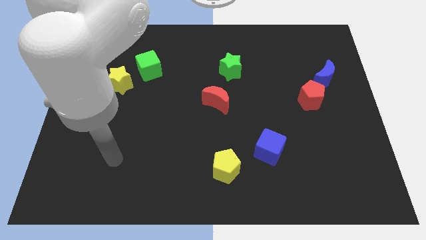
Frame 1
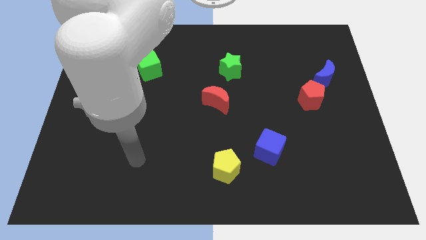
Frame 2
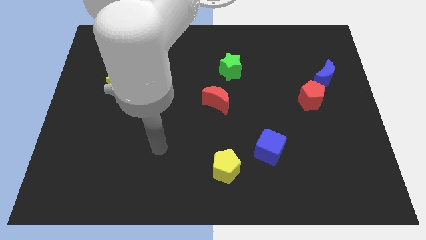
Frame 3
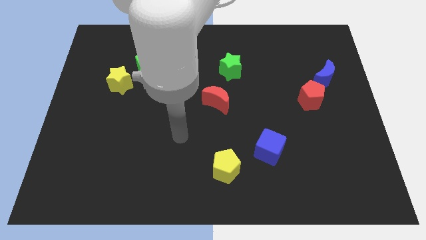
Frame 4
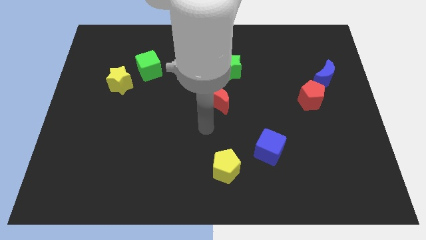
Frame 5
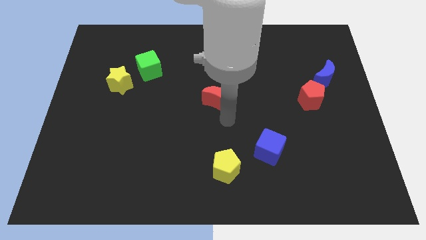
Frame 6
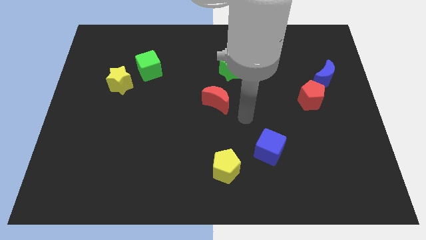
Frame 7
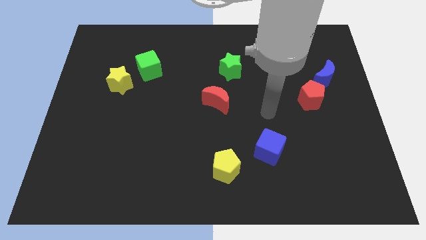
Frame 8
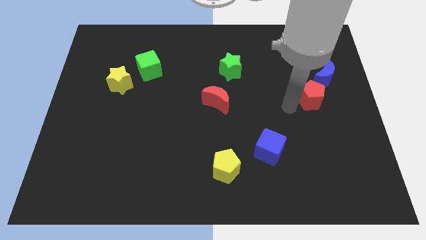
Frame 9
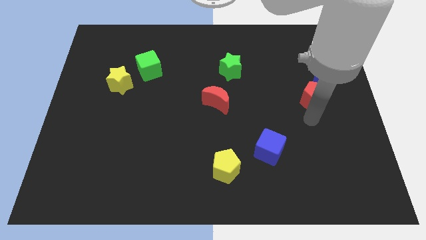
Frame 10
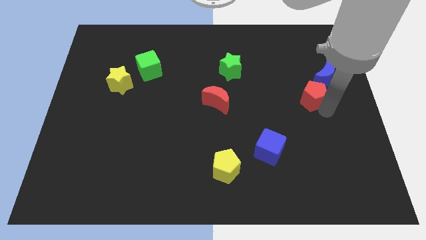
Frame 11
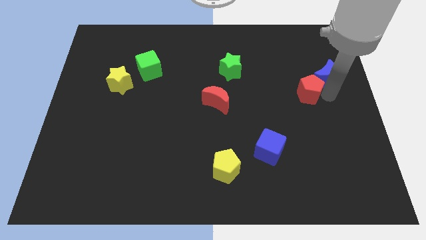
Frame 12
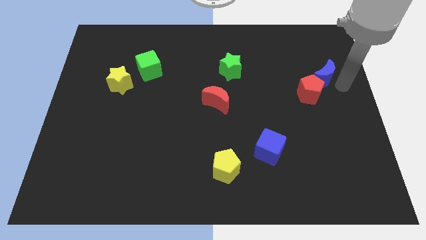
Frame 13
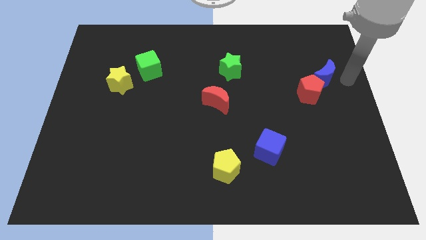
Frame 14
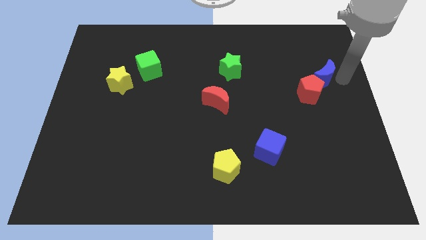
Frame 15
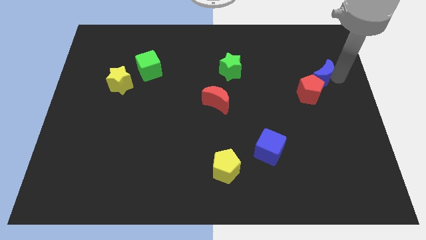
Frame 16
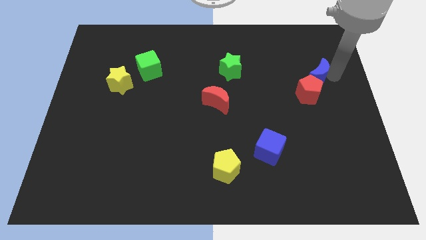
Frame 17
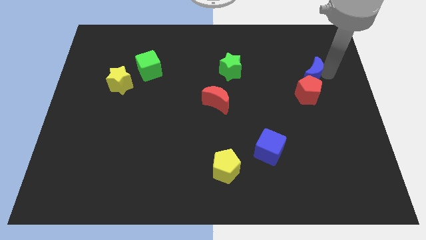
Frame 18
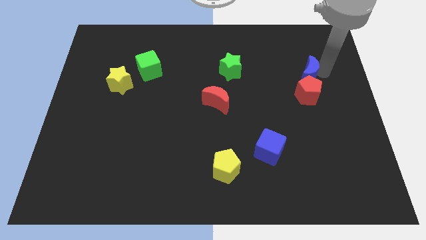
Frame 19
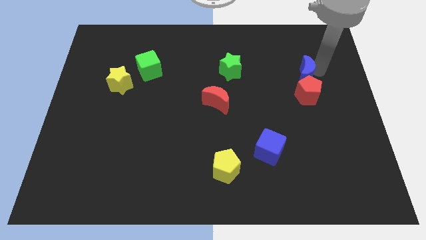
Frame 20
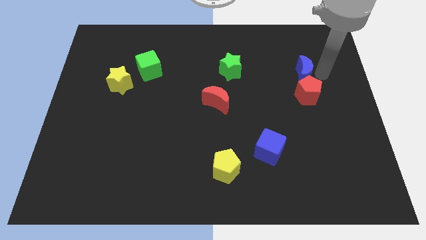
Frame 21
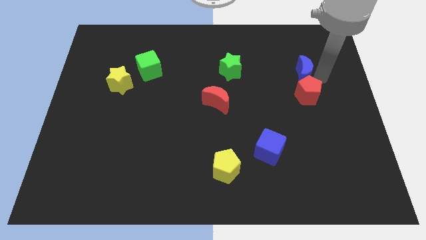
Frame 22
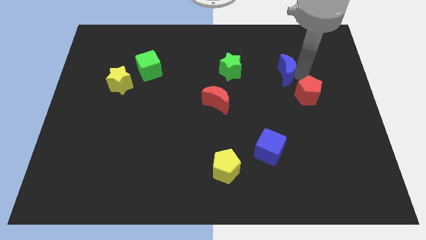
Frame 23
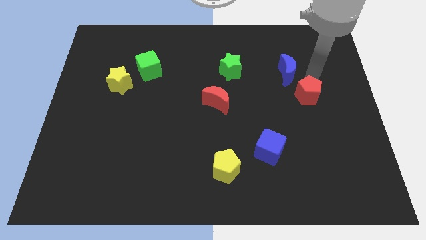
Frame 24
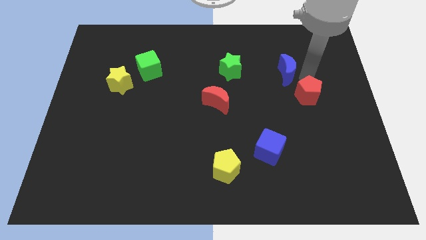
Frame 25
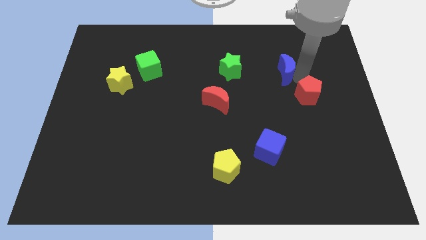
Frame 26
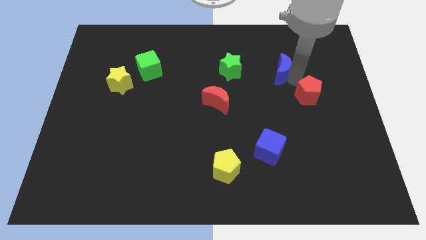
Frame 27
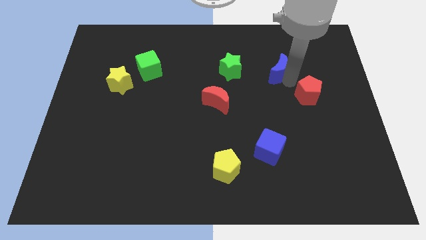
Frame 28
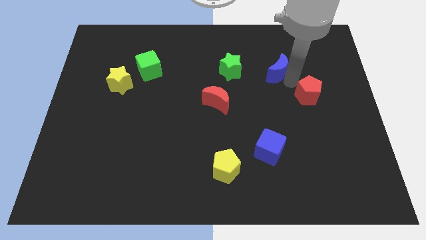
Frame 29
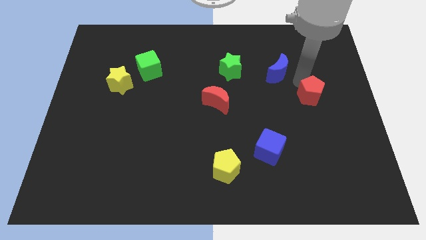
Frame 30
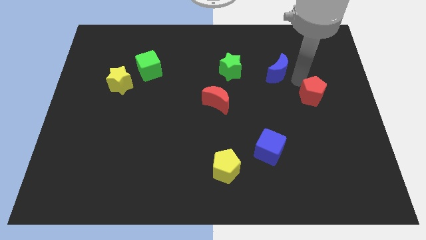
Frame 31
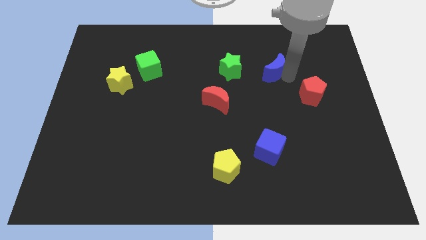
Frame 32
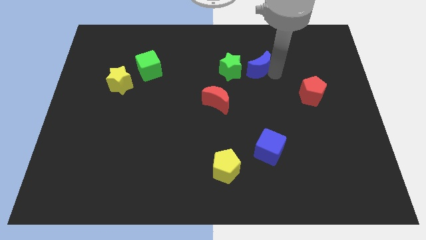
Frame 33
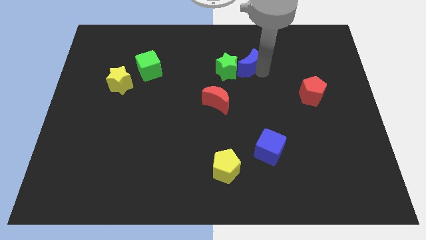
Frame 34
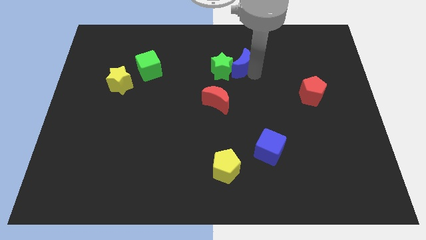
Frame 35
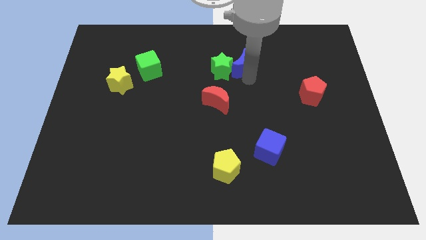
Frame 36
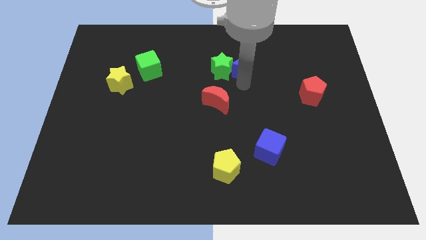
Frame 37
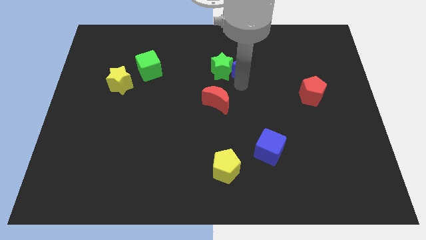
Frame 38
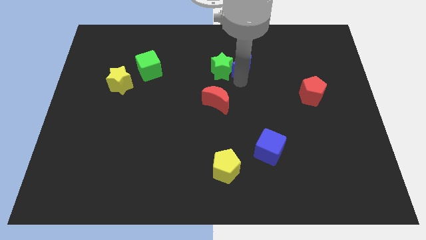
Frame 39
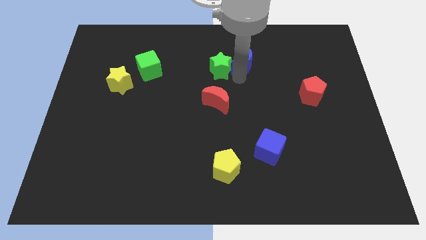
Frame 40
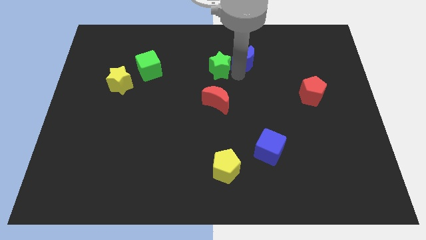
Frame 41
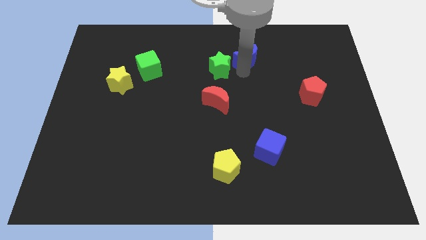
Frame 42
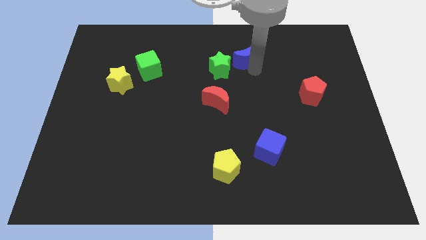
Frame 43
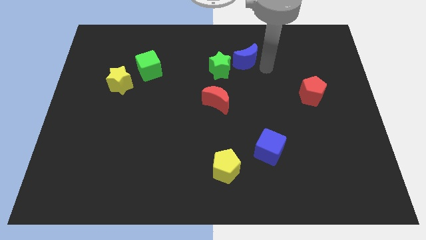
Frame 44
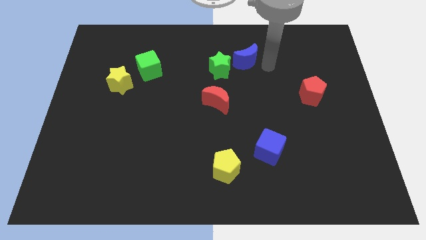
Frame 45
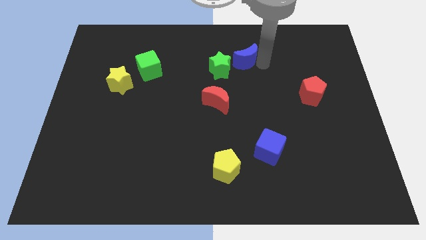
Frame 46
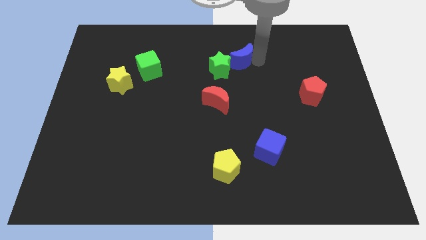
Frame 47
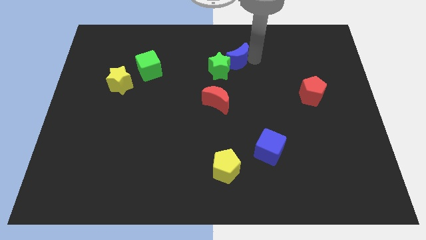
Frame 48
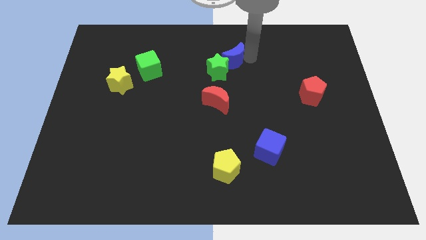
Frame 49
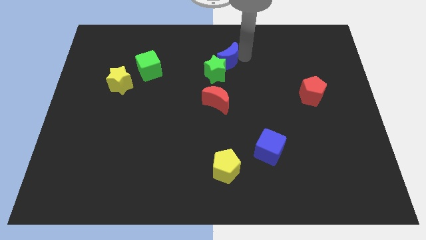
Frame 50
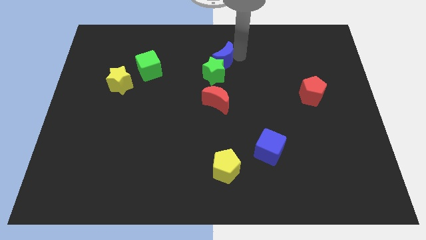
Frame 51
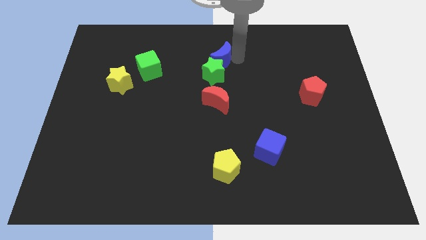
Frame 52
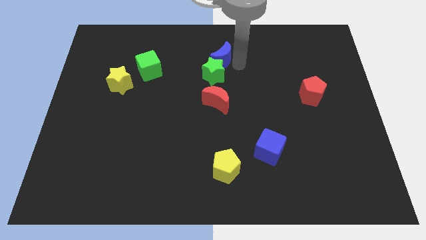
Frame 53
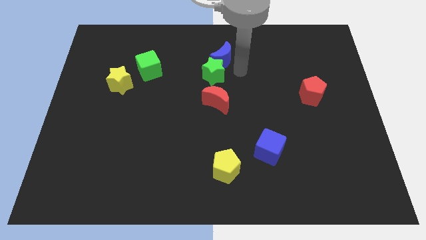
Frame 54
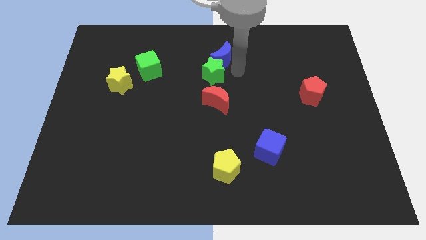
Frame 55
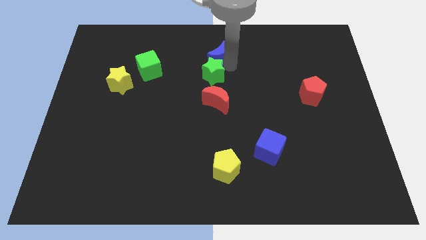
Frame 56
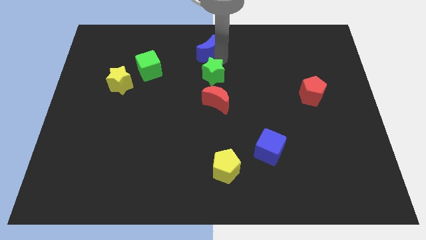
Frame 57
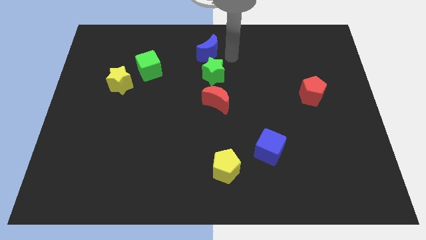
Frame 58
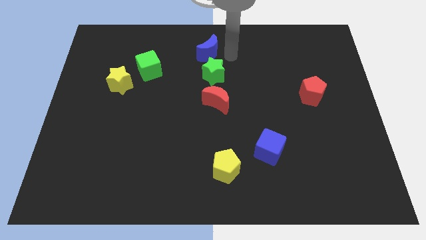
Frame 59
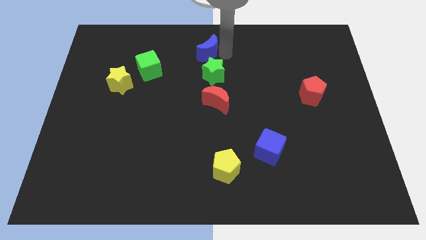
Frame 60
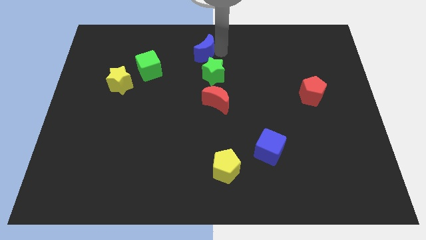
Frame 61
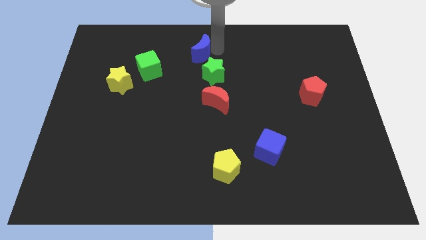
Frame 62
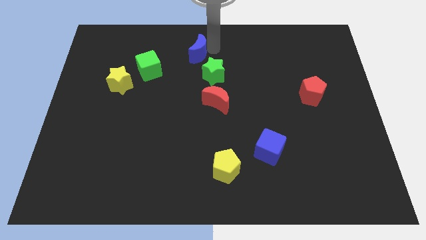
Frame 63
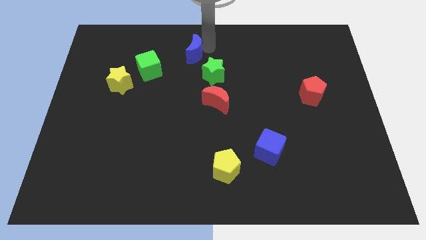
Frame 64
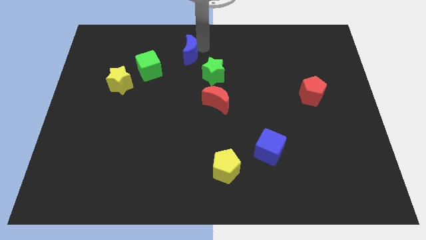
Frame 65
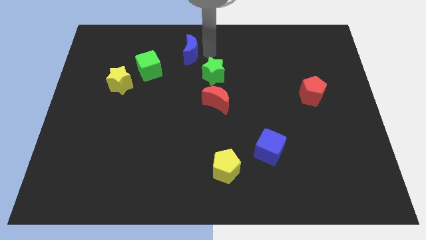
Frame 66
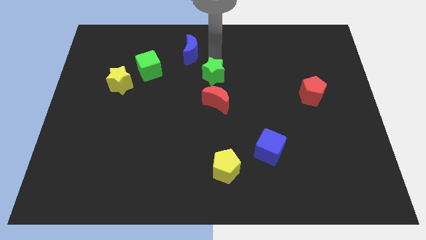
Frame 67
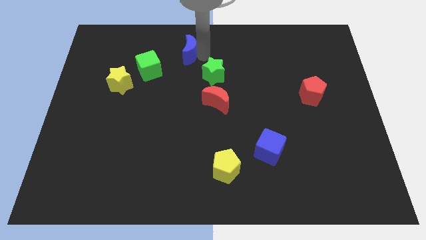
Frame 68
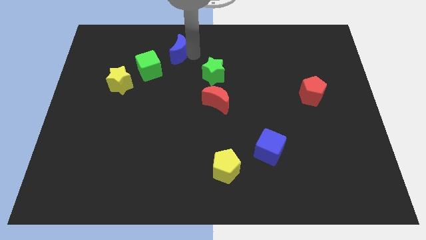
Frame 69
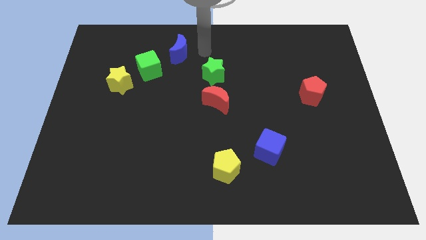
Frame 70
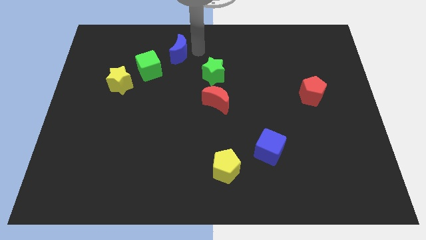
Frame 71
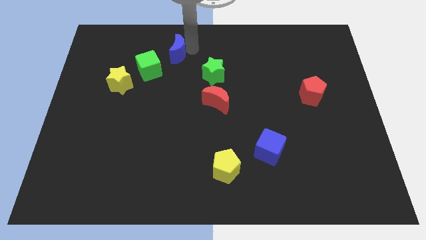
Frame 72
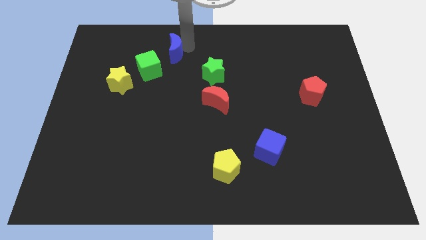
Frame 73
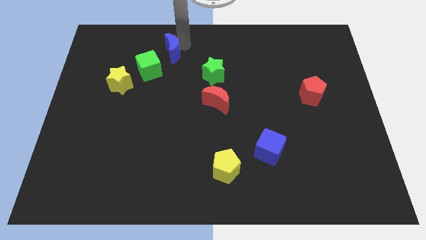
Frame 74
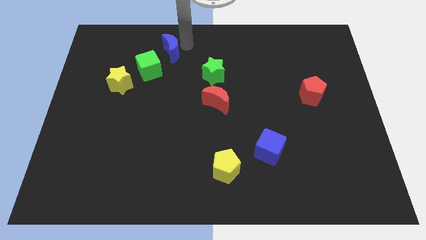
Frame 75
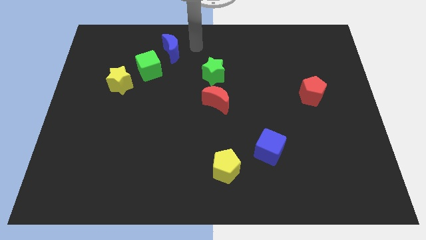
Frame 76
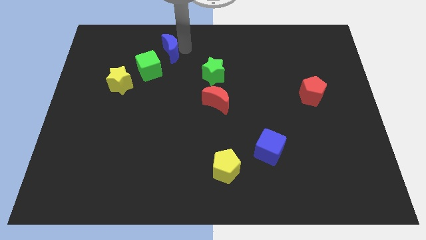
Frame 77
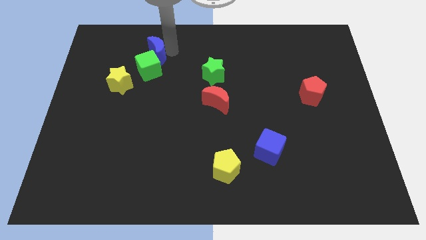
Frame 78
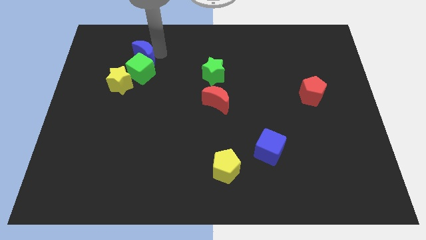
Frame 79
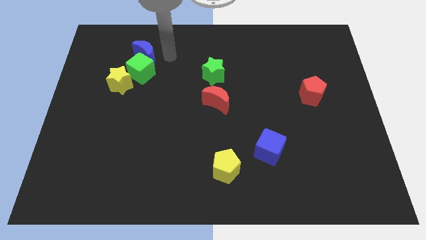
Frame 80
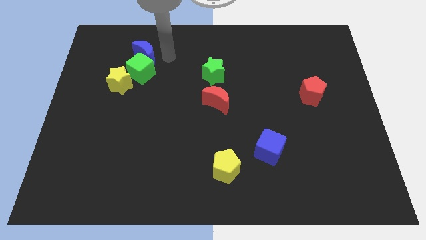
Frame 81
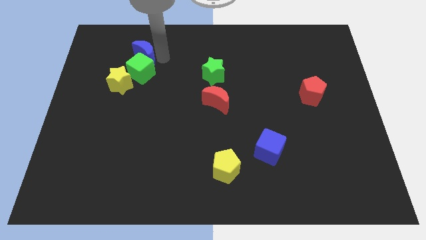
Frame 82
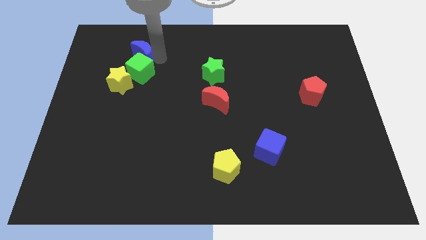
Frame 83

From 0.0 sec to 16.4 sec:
put the blue moon above the yellow star
